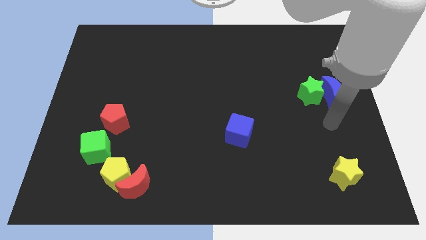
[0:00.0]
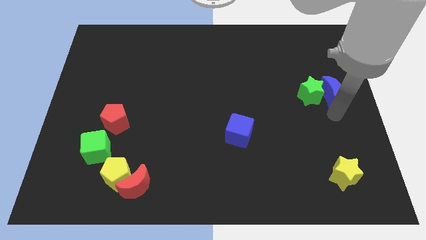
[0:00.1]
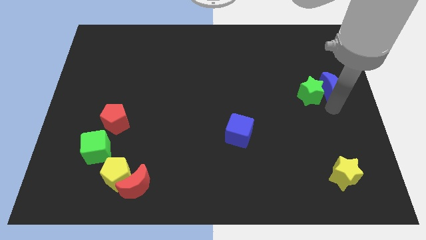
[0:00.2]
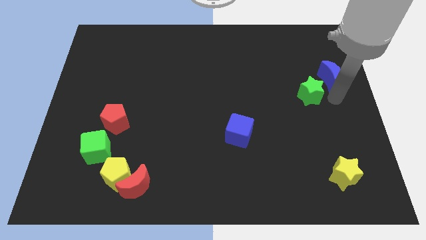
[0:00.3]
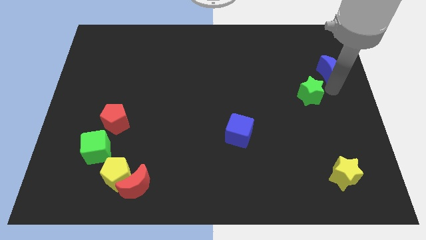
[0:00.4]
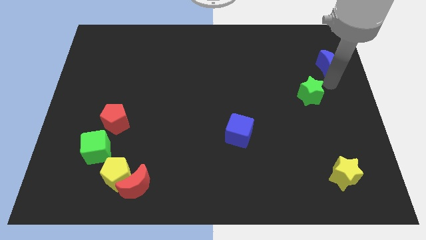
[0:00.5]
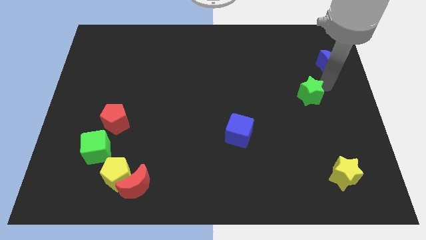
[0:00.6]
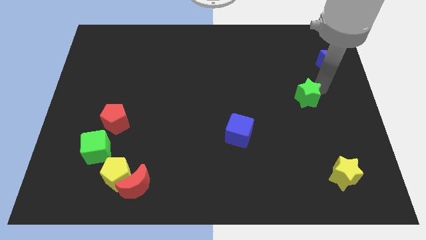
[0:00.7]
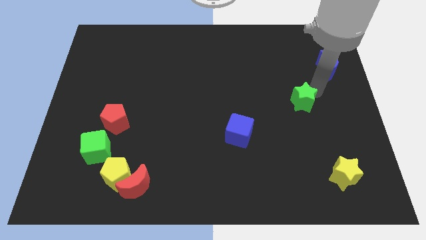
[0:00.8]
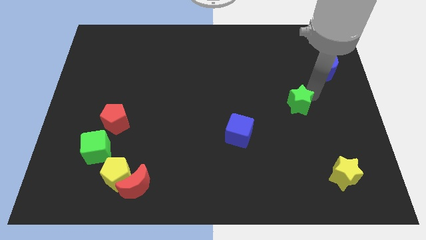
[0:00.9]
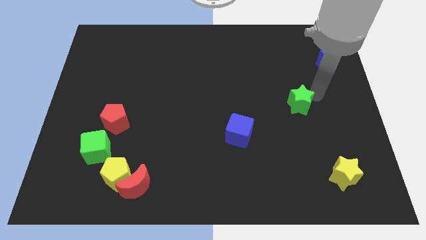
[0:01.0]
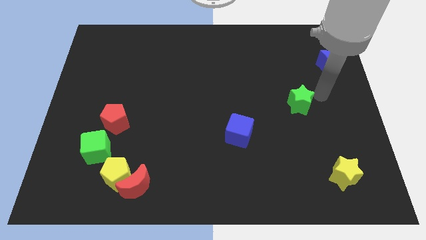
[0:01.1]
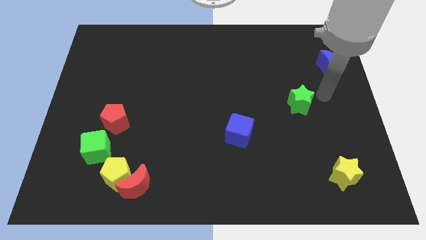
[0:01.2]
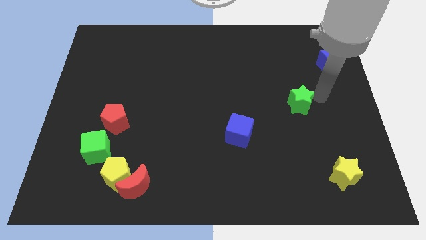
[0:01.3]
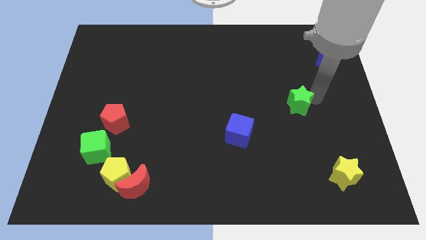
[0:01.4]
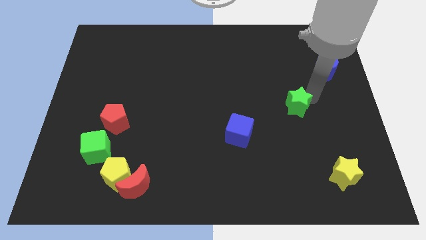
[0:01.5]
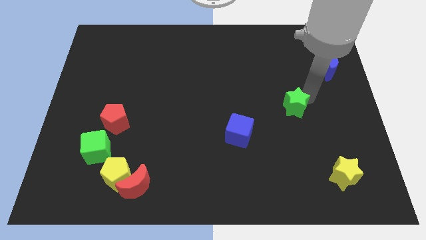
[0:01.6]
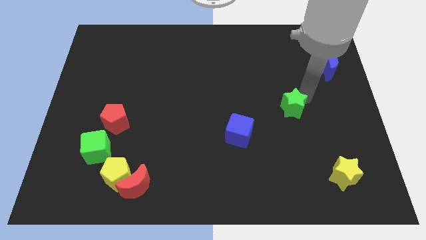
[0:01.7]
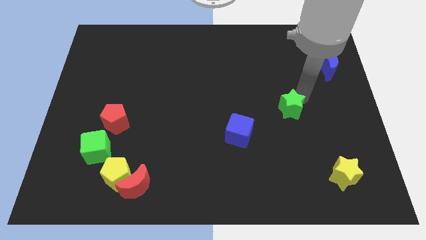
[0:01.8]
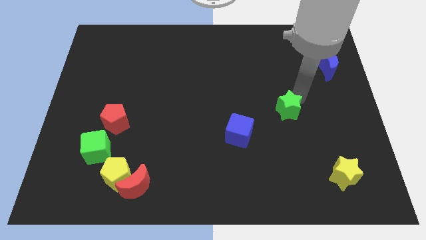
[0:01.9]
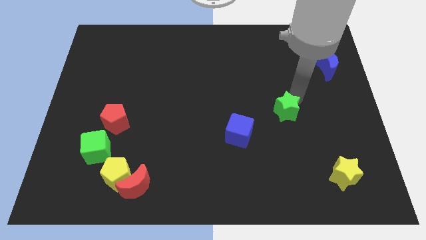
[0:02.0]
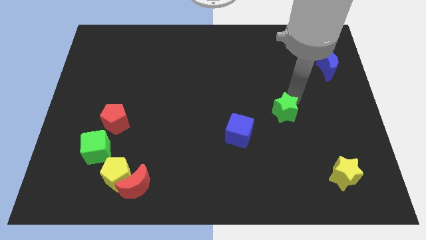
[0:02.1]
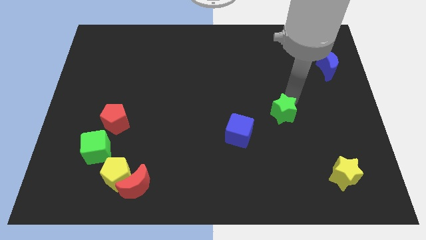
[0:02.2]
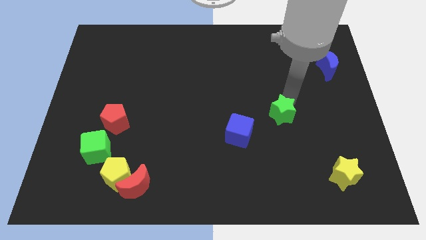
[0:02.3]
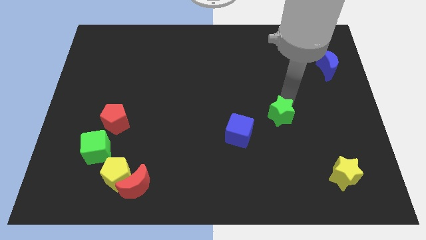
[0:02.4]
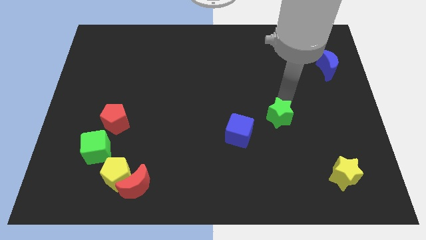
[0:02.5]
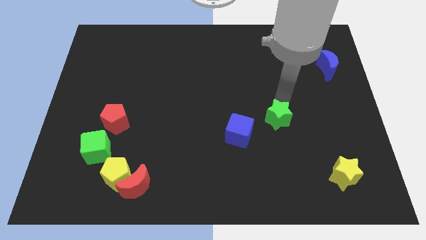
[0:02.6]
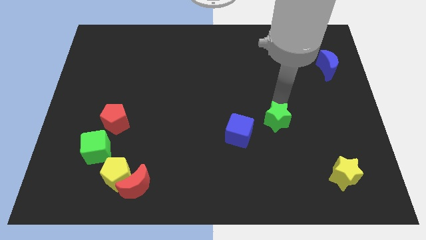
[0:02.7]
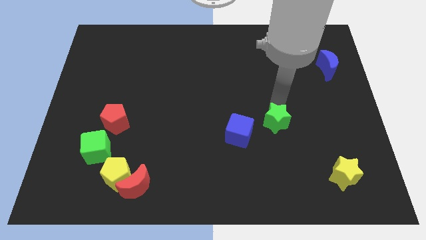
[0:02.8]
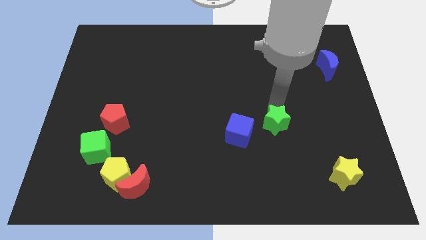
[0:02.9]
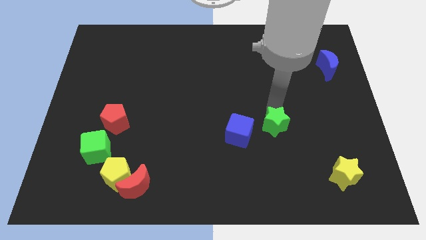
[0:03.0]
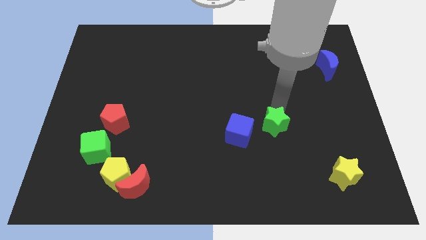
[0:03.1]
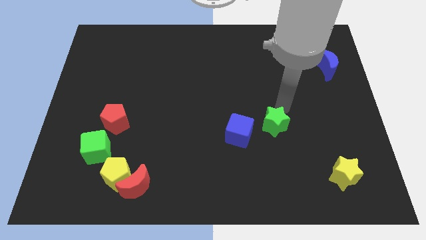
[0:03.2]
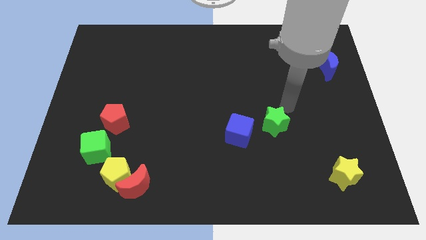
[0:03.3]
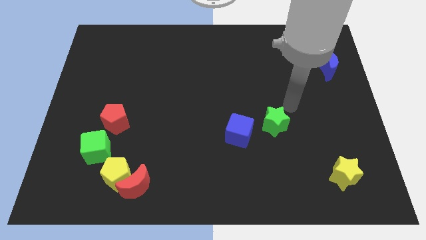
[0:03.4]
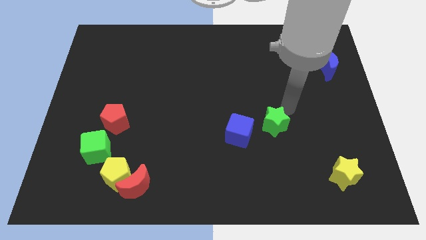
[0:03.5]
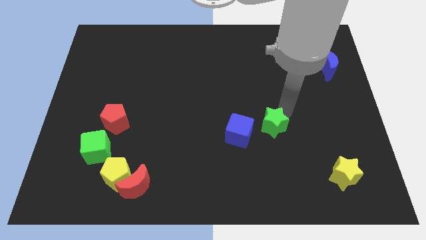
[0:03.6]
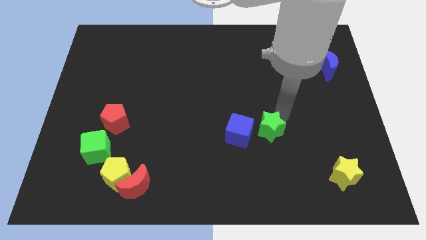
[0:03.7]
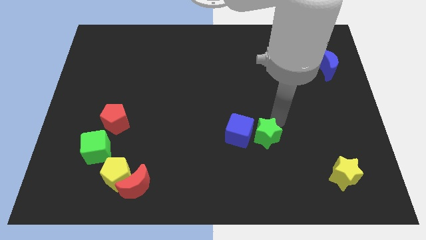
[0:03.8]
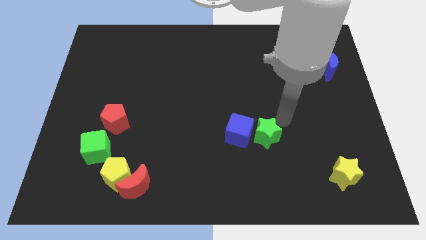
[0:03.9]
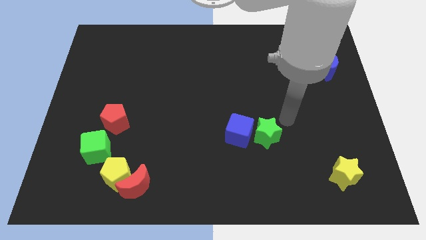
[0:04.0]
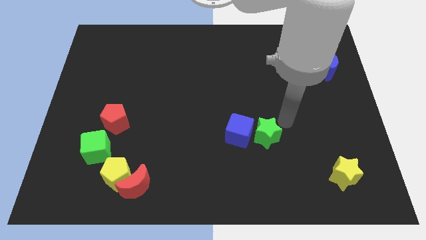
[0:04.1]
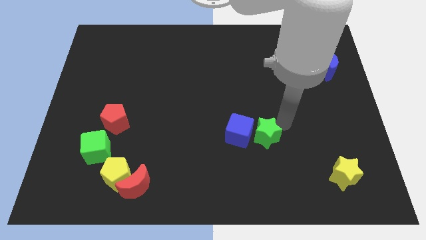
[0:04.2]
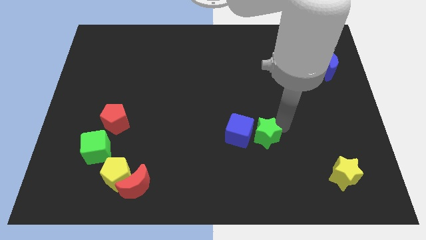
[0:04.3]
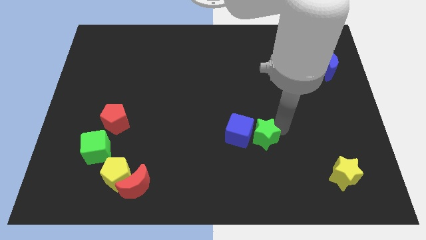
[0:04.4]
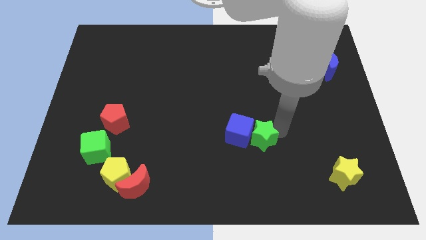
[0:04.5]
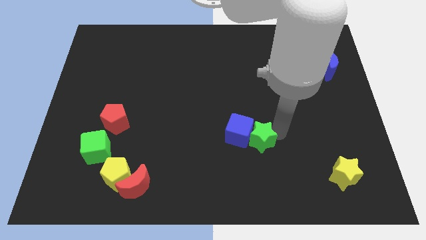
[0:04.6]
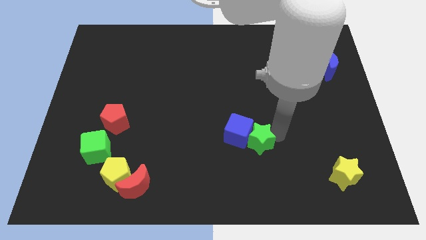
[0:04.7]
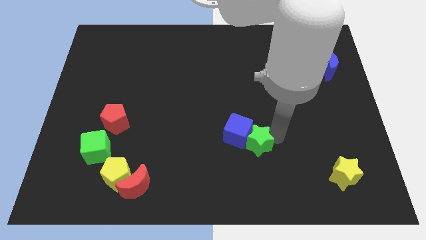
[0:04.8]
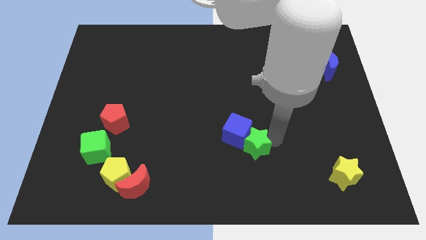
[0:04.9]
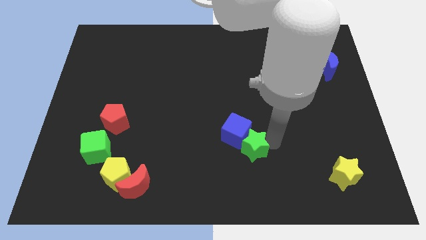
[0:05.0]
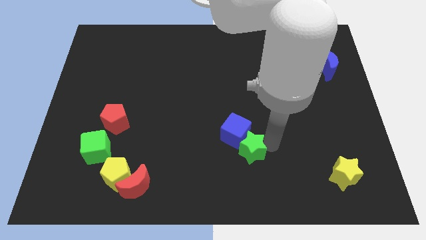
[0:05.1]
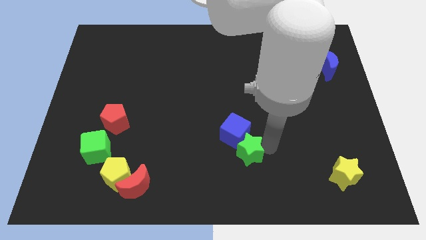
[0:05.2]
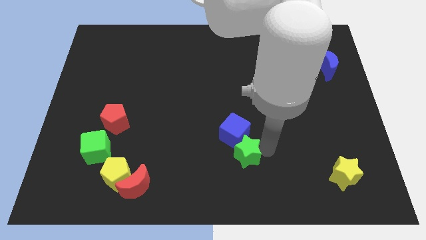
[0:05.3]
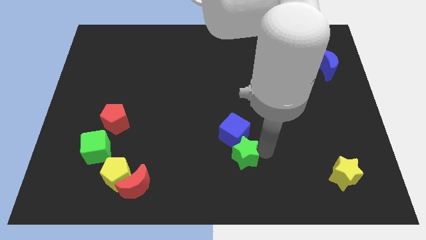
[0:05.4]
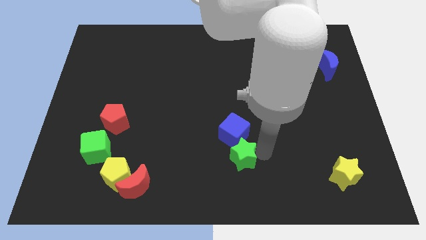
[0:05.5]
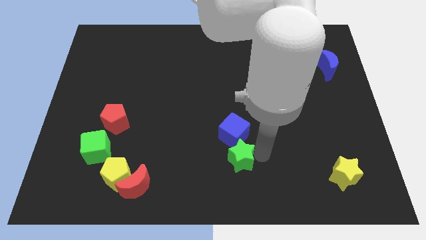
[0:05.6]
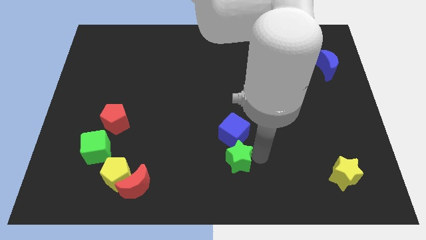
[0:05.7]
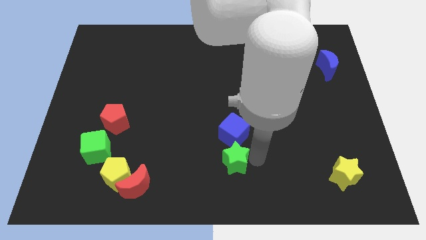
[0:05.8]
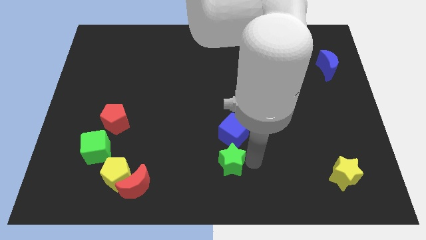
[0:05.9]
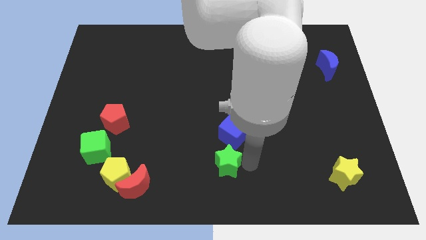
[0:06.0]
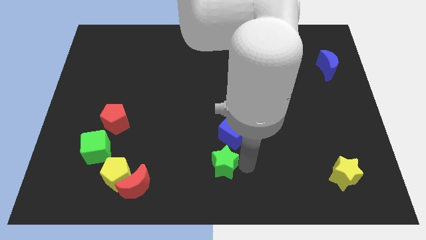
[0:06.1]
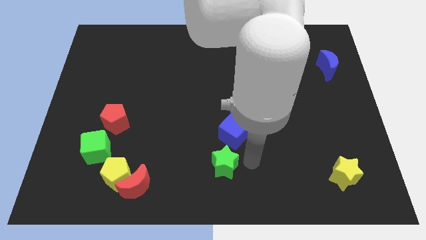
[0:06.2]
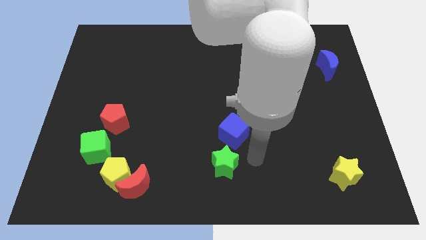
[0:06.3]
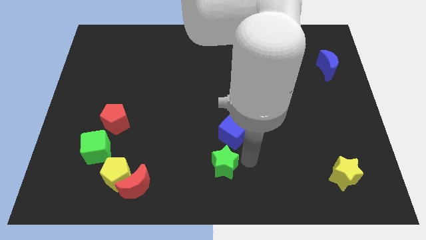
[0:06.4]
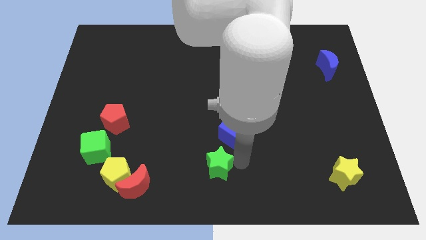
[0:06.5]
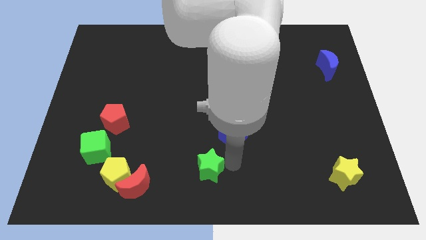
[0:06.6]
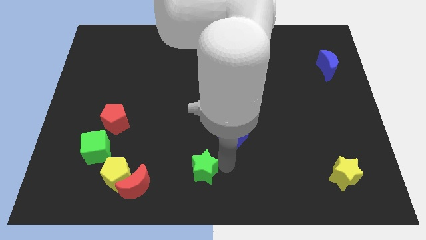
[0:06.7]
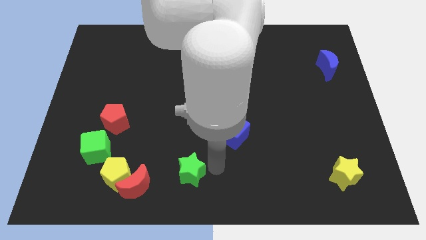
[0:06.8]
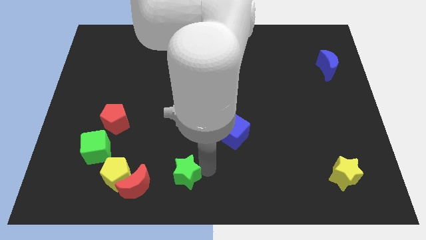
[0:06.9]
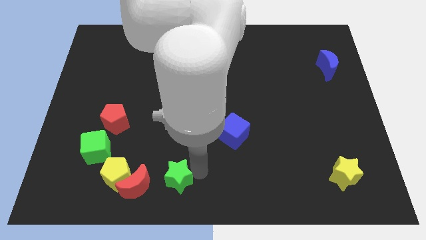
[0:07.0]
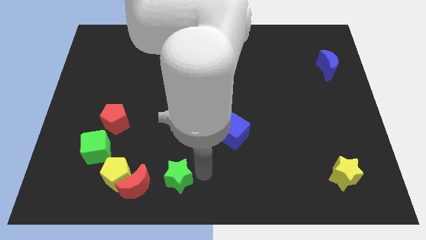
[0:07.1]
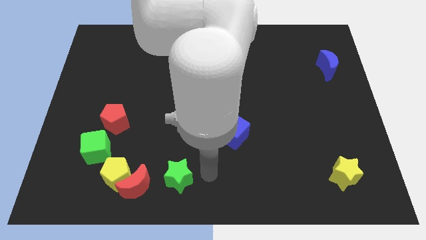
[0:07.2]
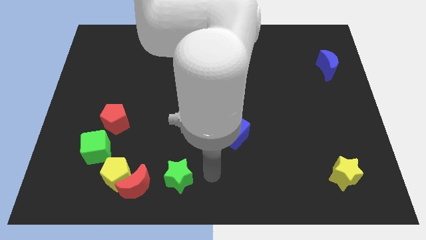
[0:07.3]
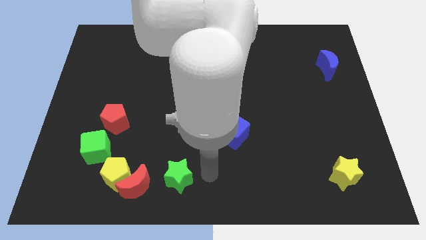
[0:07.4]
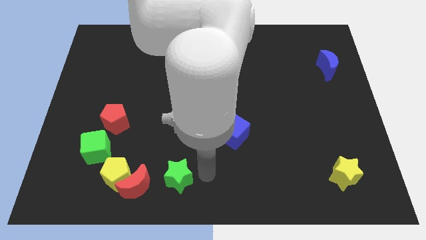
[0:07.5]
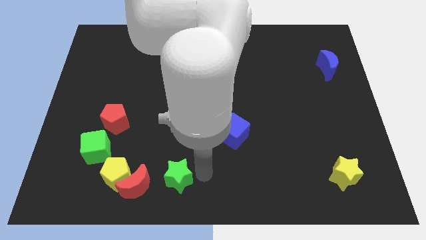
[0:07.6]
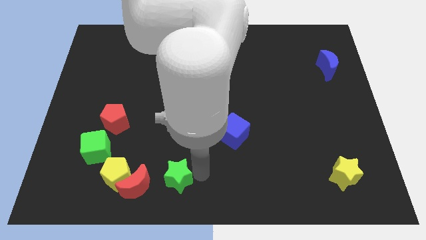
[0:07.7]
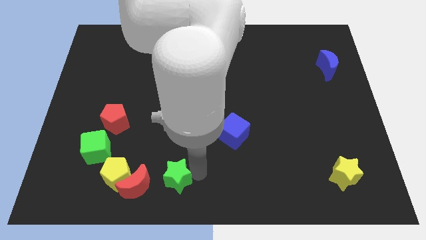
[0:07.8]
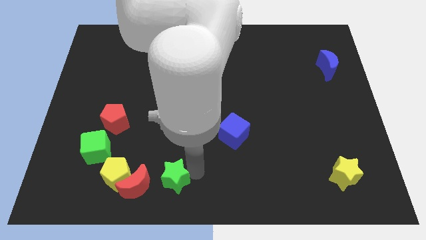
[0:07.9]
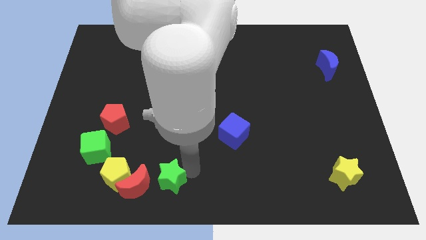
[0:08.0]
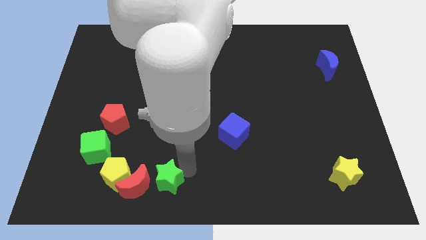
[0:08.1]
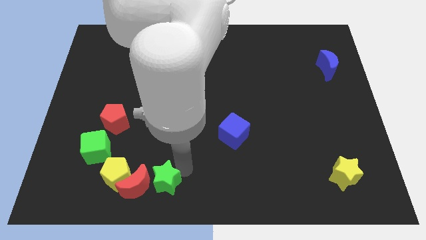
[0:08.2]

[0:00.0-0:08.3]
push the green star close to the red moon
